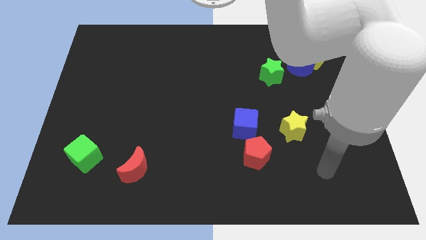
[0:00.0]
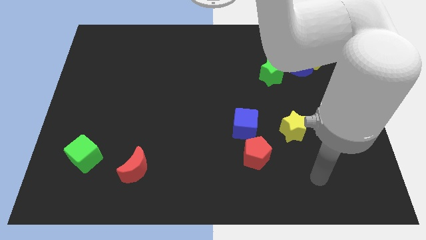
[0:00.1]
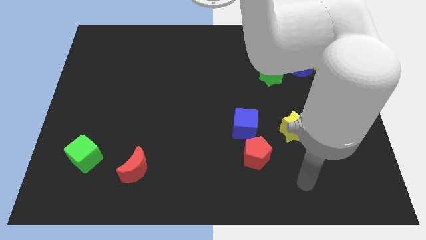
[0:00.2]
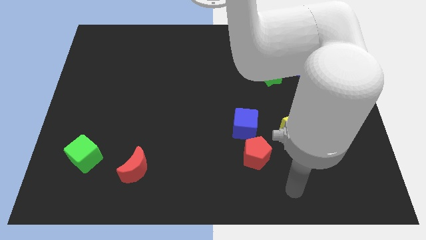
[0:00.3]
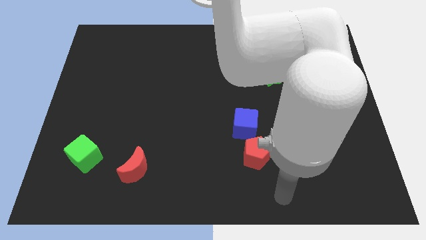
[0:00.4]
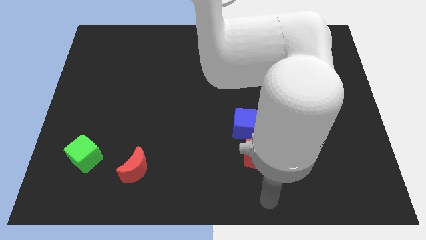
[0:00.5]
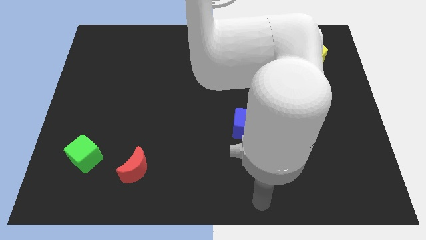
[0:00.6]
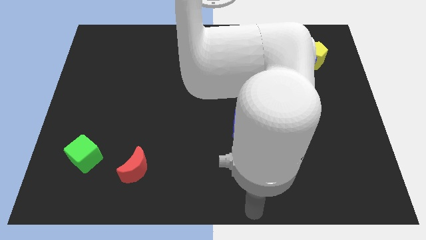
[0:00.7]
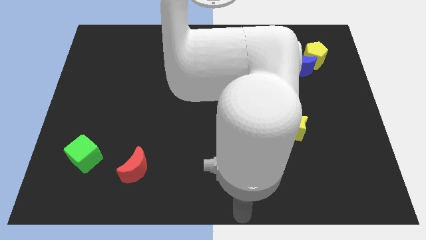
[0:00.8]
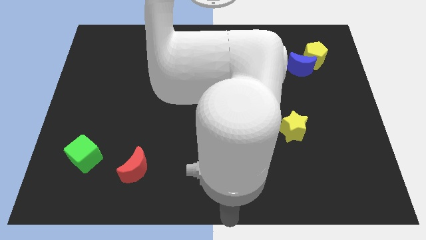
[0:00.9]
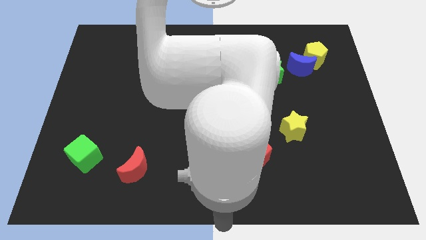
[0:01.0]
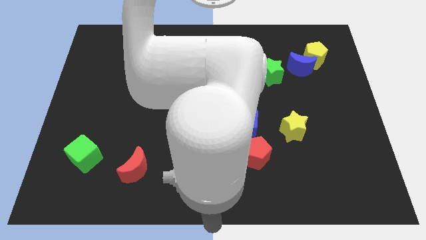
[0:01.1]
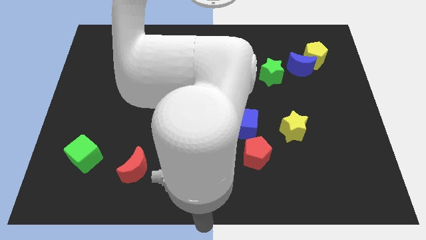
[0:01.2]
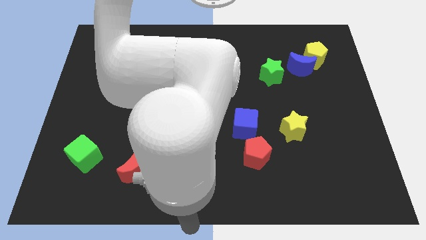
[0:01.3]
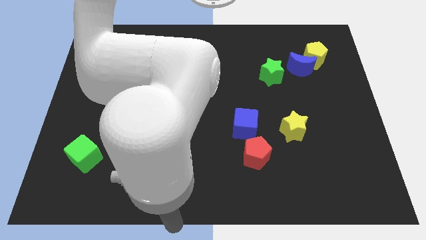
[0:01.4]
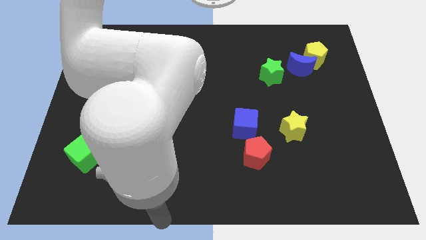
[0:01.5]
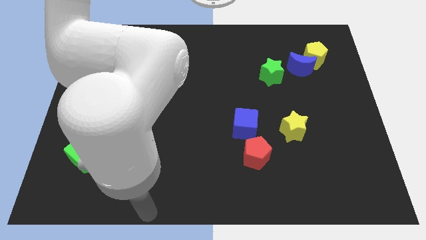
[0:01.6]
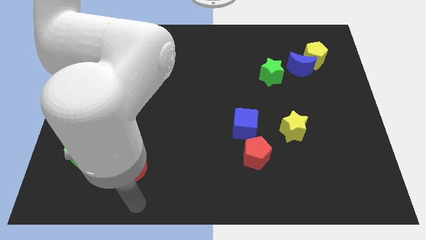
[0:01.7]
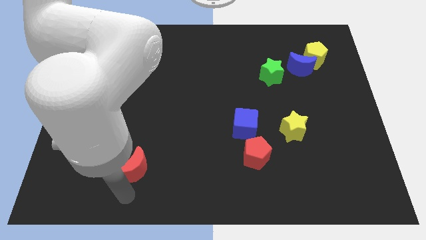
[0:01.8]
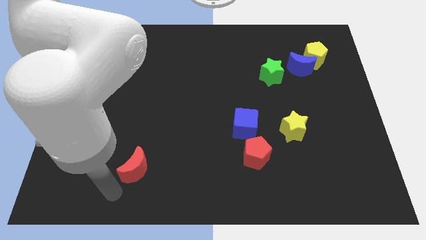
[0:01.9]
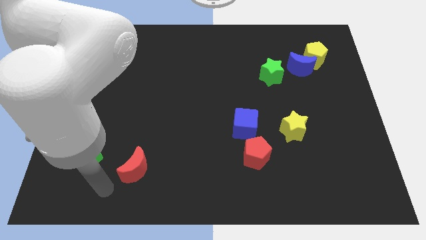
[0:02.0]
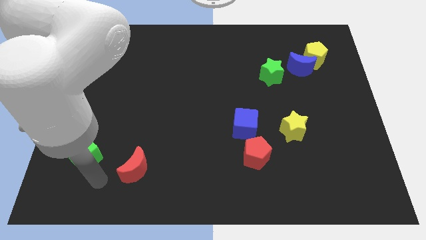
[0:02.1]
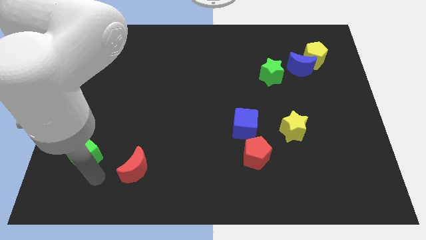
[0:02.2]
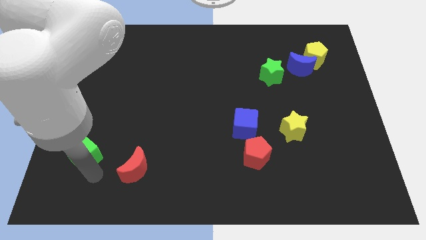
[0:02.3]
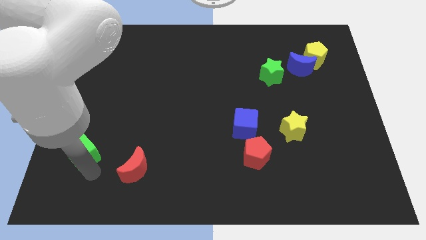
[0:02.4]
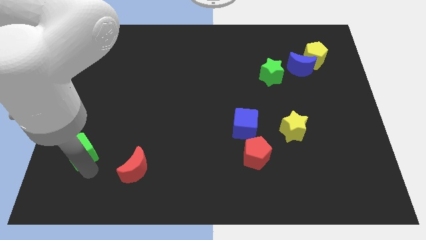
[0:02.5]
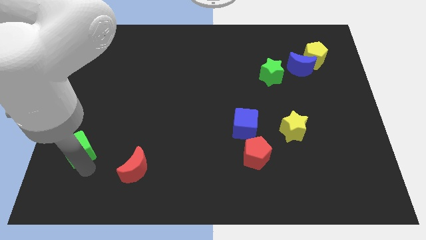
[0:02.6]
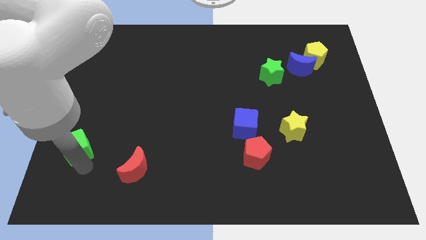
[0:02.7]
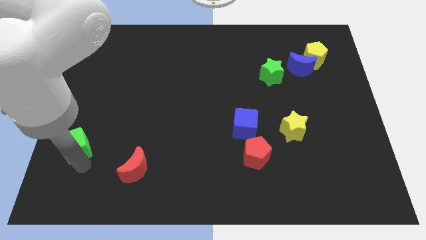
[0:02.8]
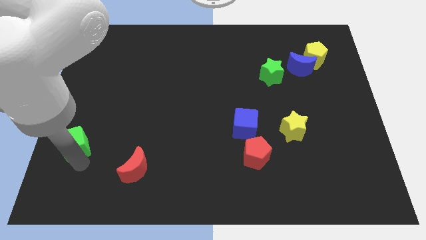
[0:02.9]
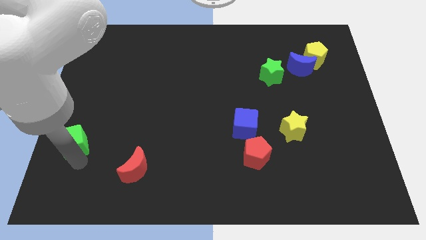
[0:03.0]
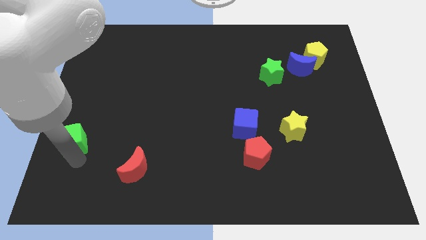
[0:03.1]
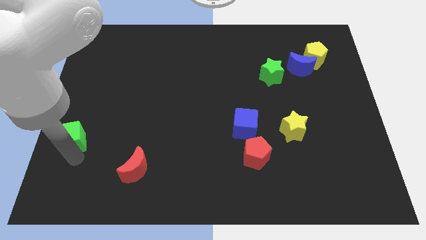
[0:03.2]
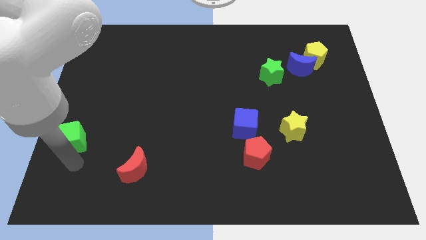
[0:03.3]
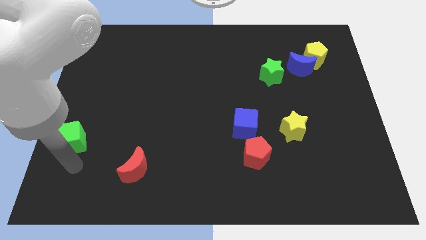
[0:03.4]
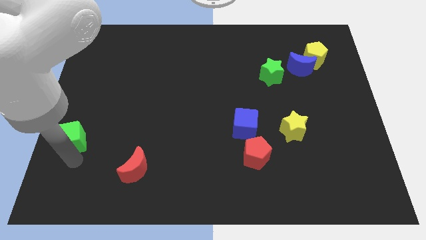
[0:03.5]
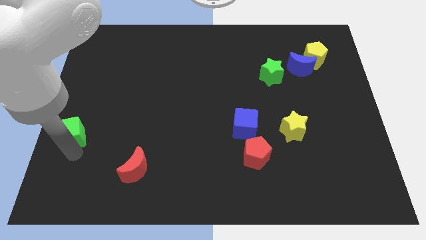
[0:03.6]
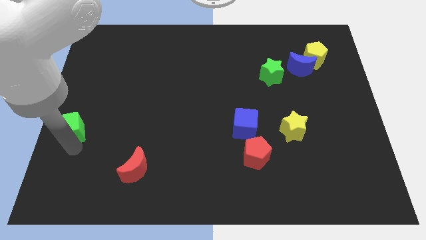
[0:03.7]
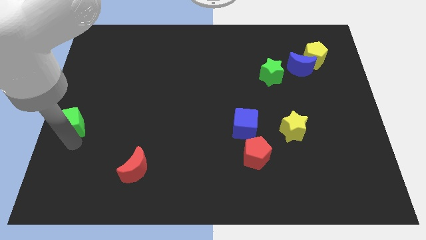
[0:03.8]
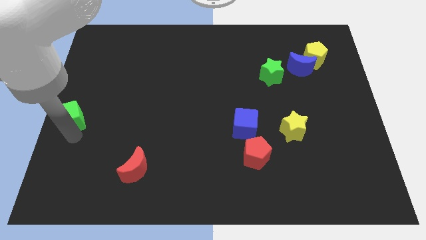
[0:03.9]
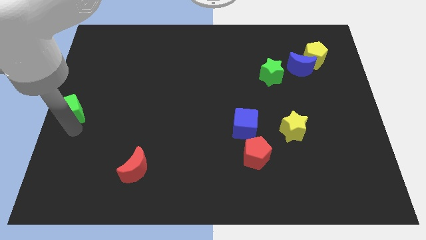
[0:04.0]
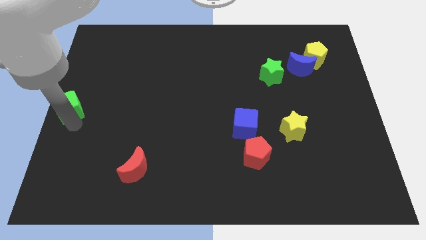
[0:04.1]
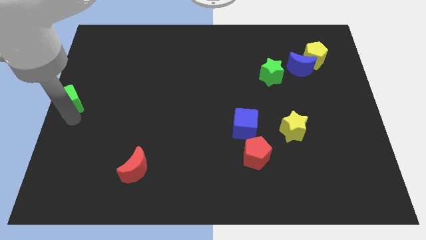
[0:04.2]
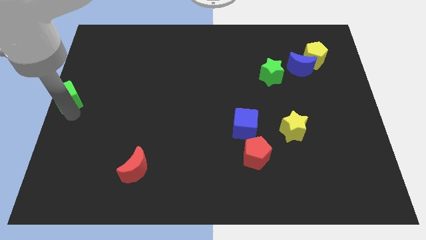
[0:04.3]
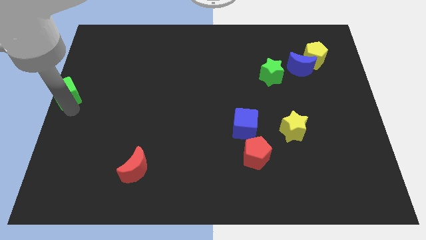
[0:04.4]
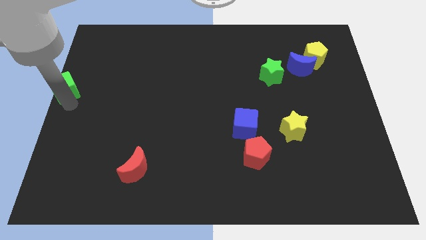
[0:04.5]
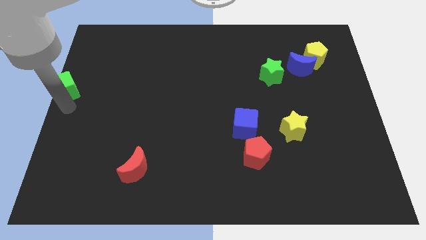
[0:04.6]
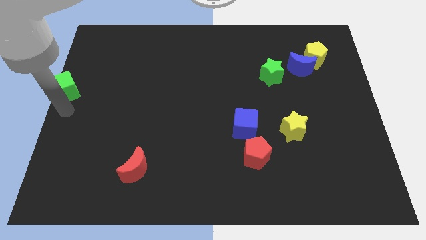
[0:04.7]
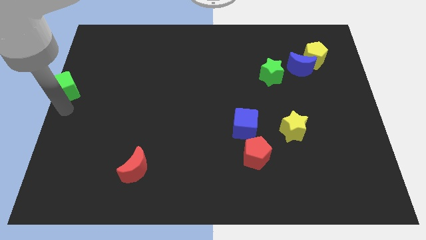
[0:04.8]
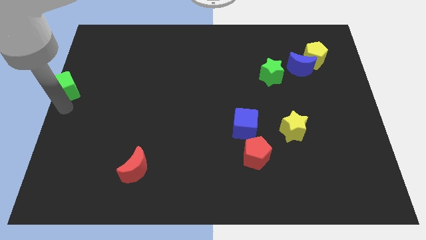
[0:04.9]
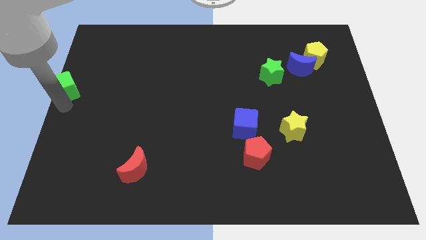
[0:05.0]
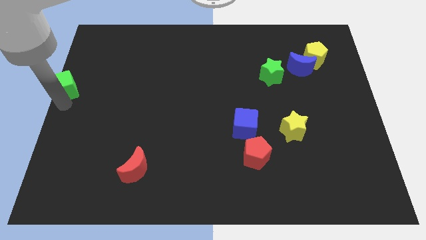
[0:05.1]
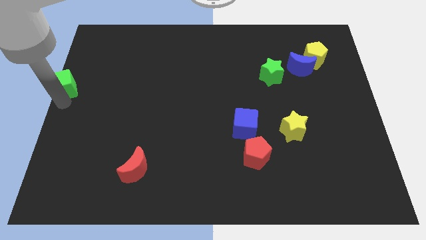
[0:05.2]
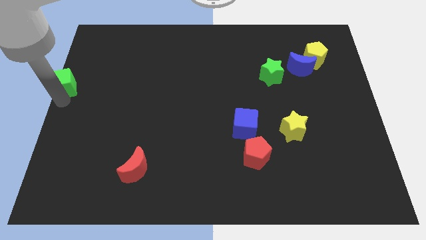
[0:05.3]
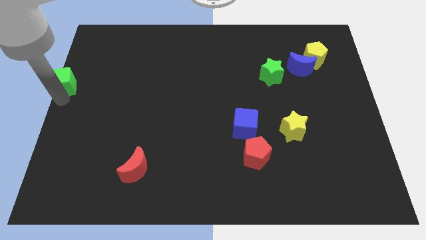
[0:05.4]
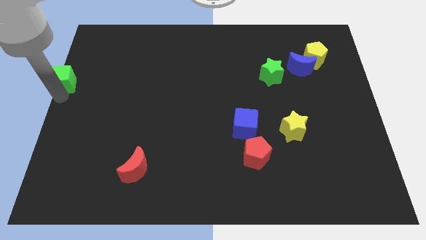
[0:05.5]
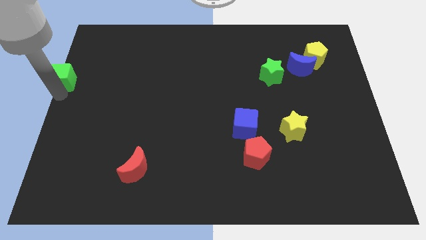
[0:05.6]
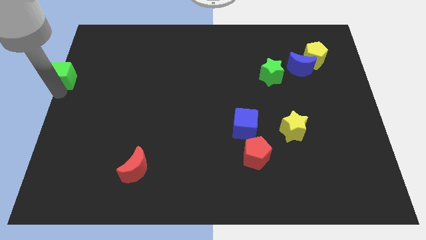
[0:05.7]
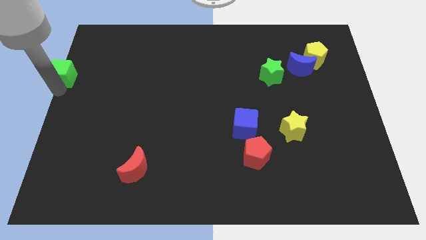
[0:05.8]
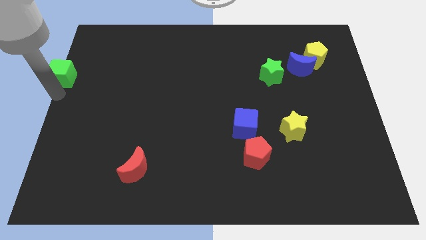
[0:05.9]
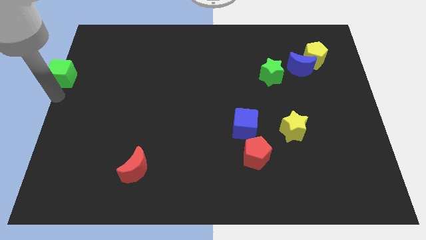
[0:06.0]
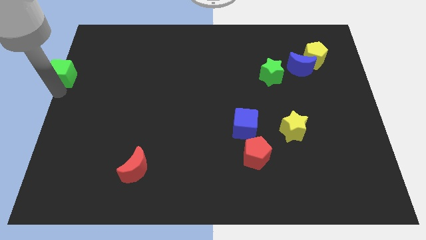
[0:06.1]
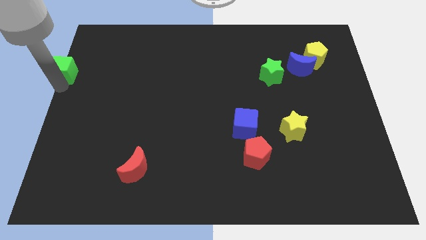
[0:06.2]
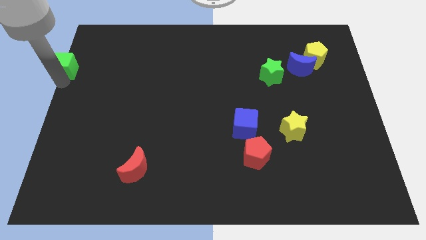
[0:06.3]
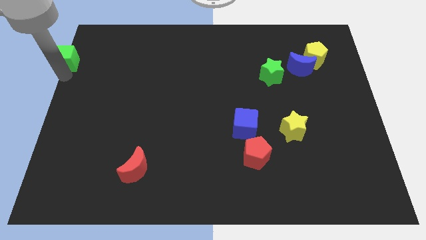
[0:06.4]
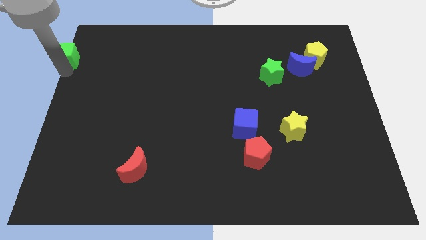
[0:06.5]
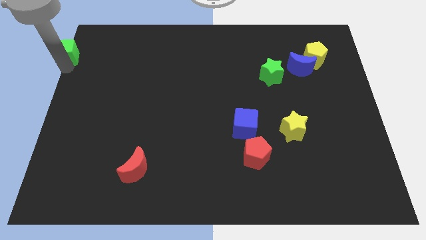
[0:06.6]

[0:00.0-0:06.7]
move the green cube to the top left of the board
